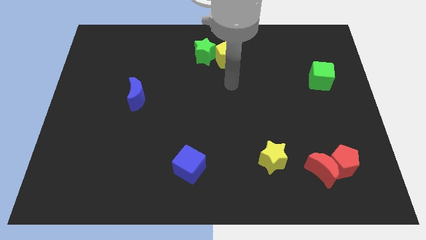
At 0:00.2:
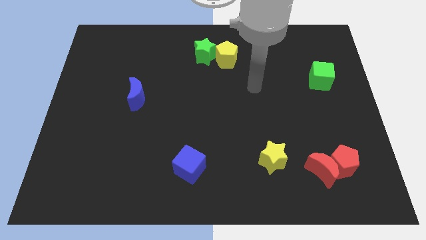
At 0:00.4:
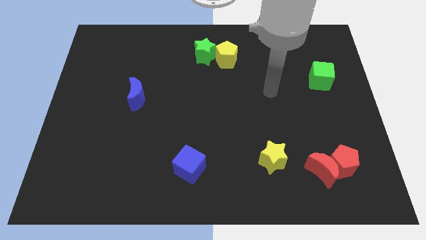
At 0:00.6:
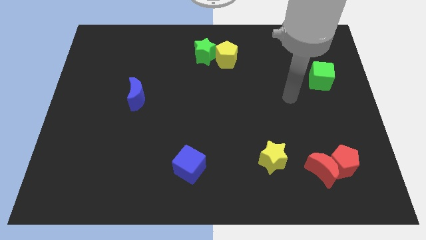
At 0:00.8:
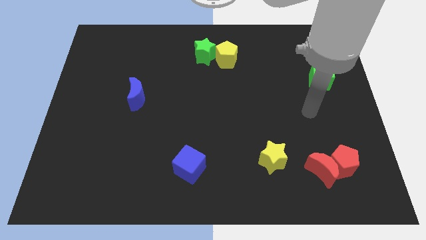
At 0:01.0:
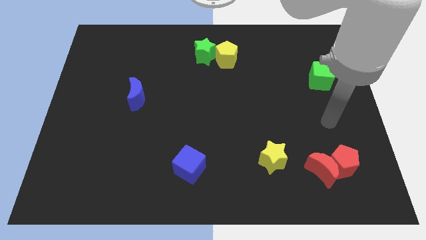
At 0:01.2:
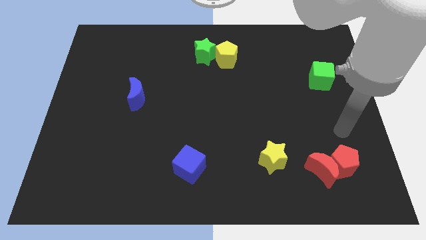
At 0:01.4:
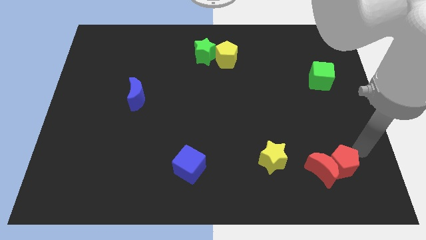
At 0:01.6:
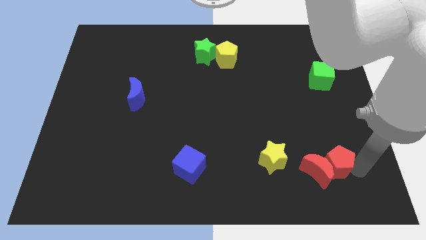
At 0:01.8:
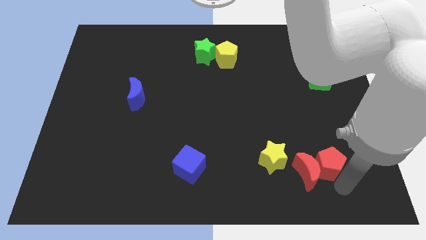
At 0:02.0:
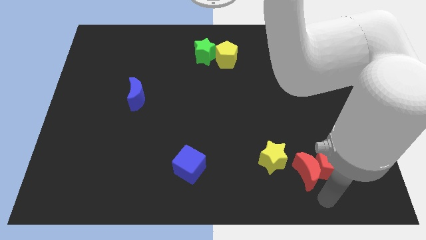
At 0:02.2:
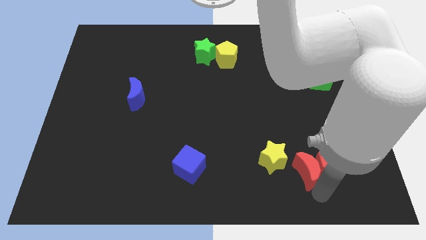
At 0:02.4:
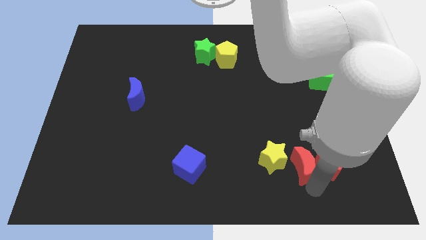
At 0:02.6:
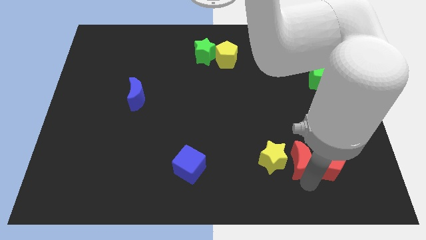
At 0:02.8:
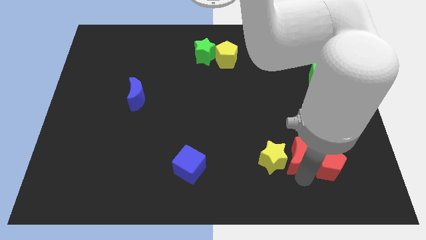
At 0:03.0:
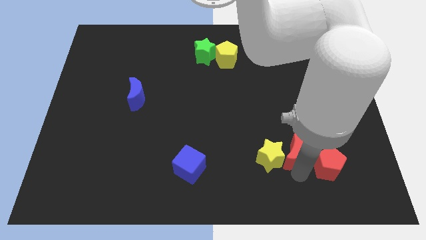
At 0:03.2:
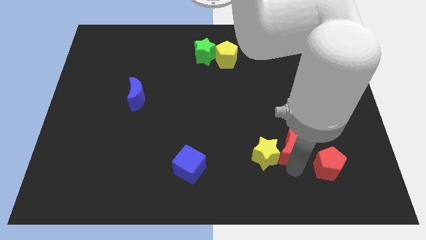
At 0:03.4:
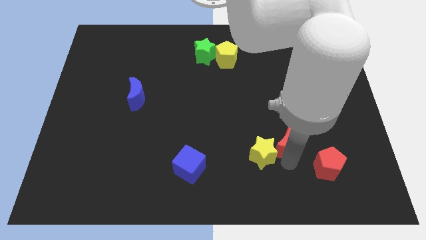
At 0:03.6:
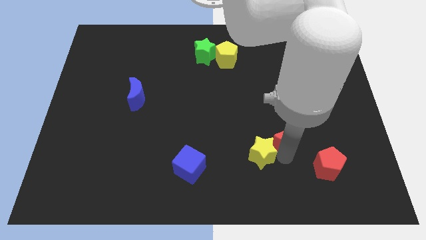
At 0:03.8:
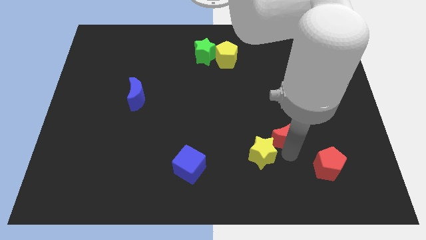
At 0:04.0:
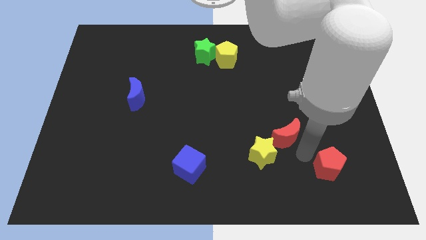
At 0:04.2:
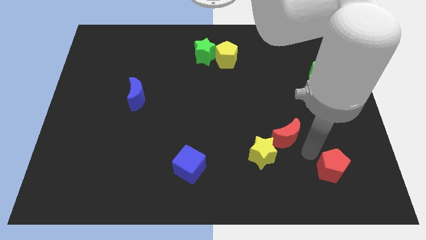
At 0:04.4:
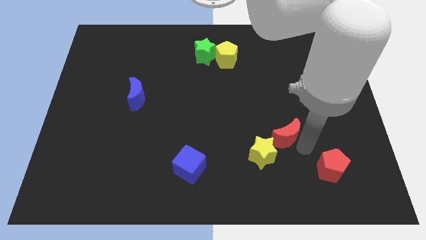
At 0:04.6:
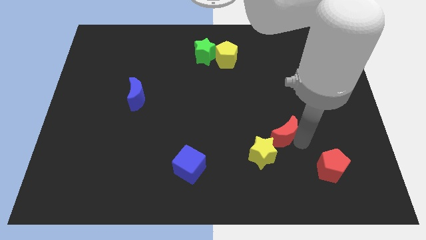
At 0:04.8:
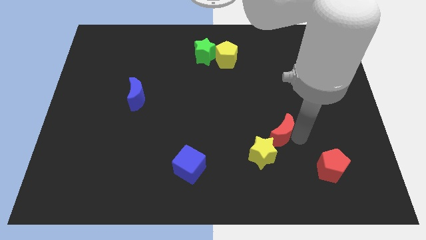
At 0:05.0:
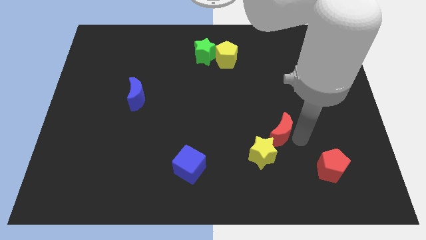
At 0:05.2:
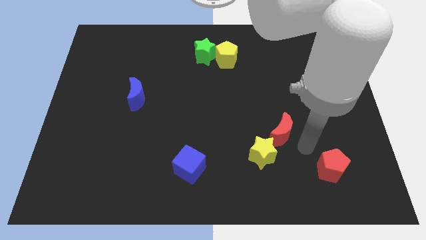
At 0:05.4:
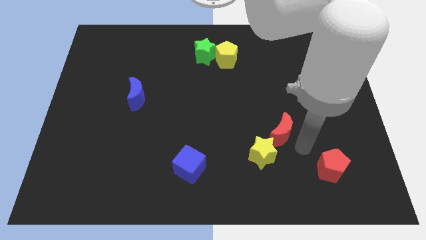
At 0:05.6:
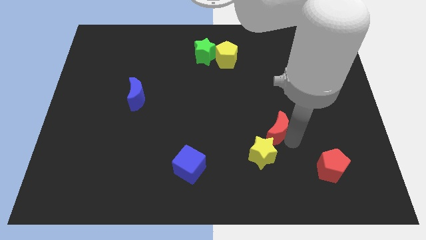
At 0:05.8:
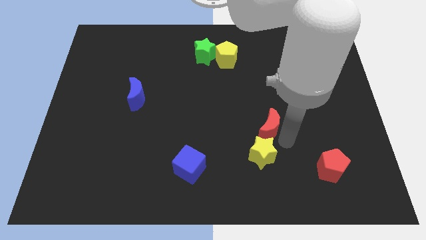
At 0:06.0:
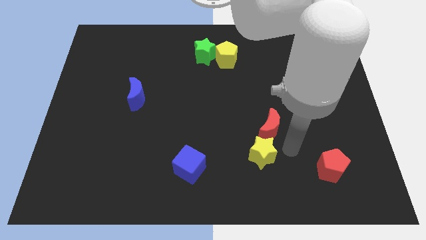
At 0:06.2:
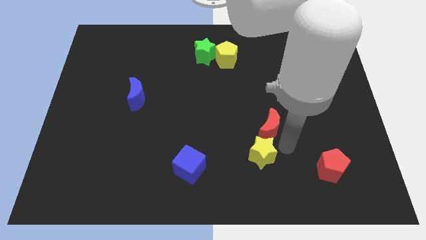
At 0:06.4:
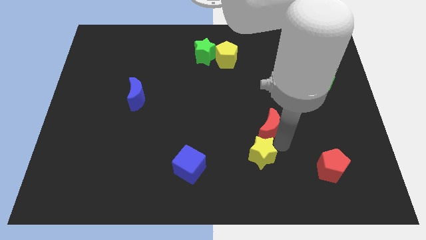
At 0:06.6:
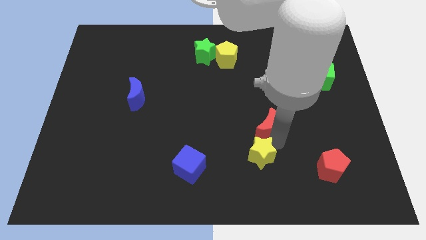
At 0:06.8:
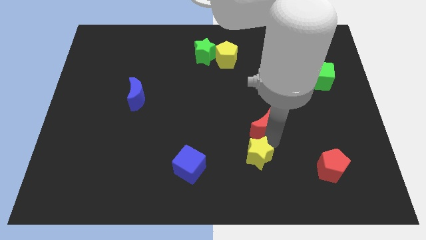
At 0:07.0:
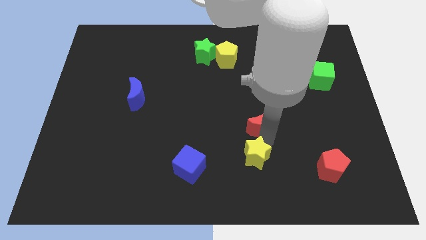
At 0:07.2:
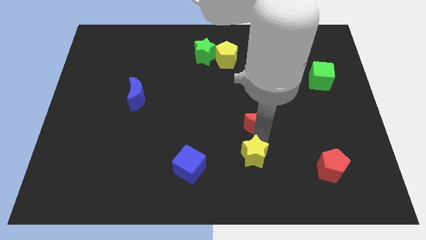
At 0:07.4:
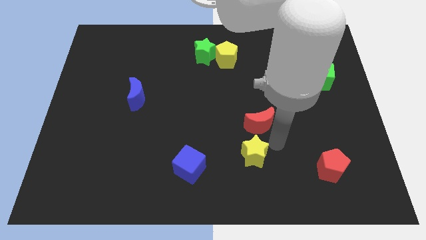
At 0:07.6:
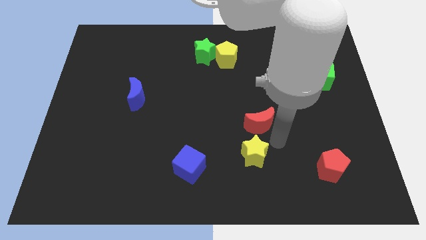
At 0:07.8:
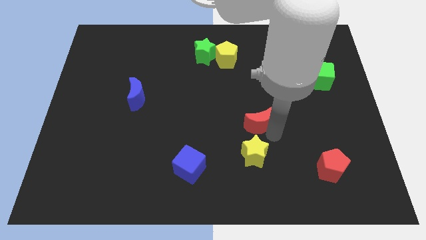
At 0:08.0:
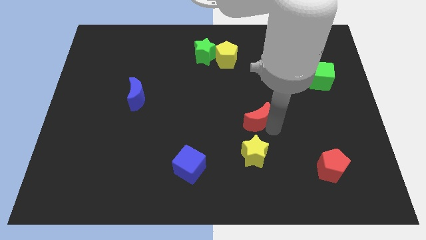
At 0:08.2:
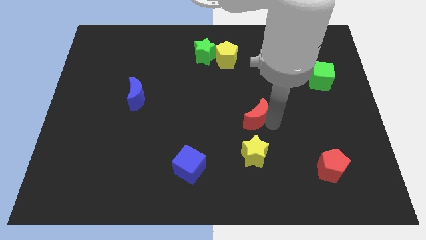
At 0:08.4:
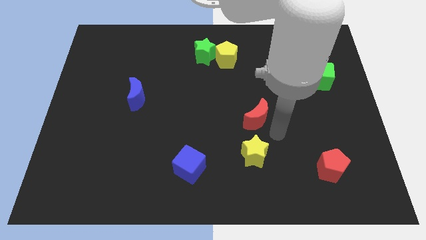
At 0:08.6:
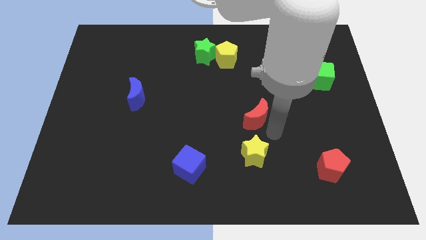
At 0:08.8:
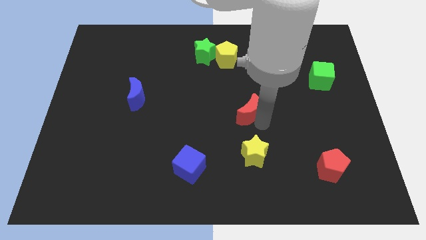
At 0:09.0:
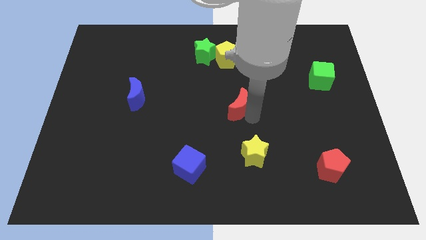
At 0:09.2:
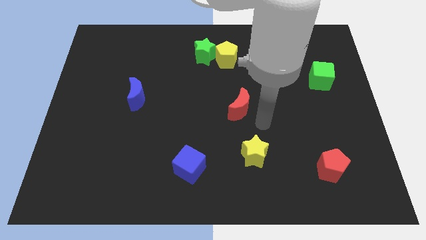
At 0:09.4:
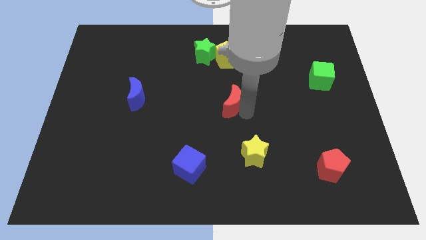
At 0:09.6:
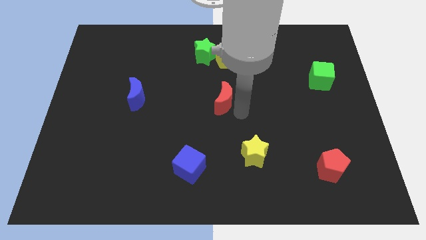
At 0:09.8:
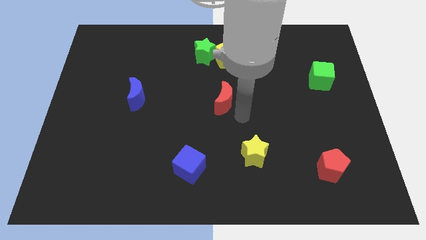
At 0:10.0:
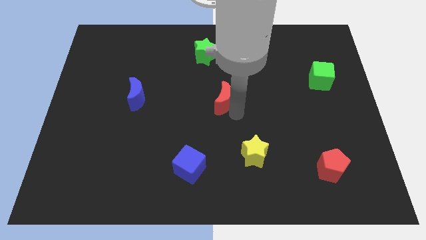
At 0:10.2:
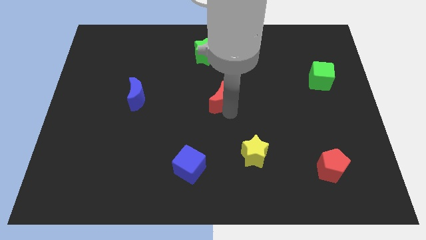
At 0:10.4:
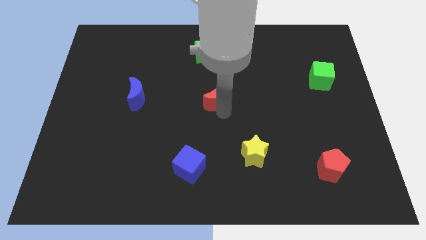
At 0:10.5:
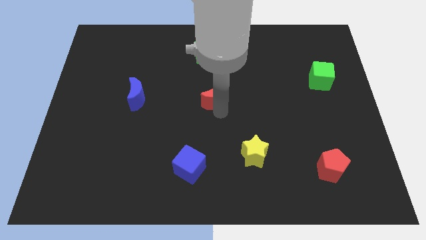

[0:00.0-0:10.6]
push the red moon to the bottom side of the green star

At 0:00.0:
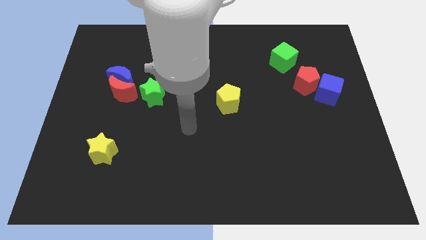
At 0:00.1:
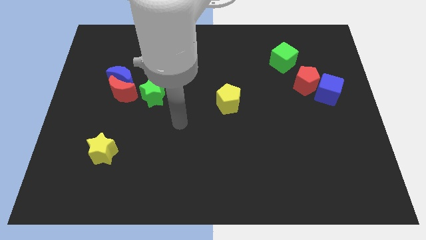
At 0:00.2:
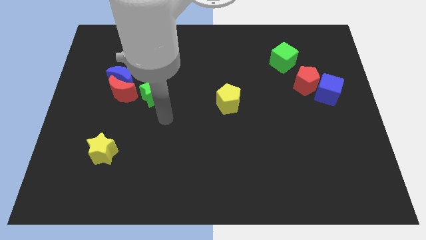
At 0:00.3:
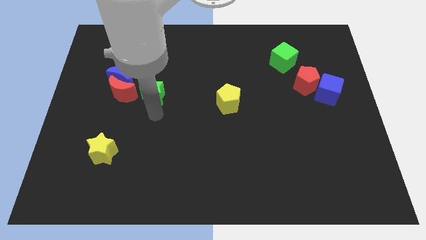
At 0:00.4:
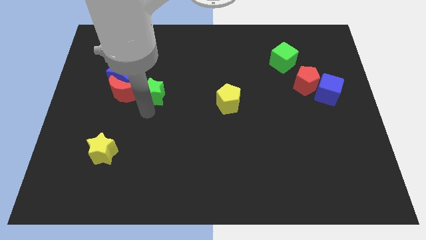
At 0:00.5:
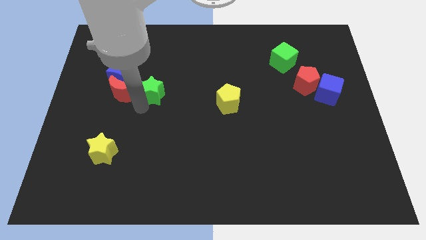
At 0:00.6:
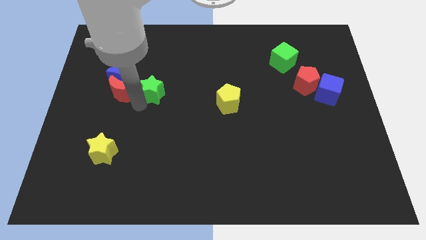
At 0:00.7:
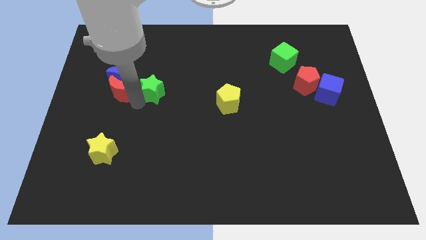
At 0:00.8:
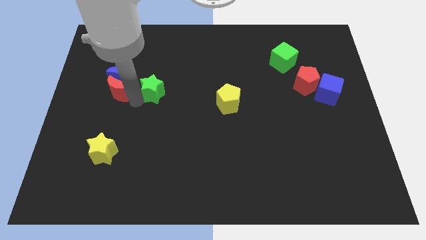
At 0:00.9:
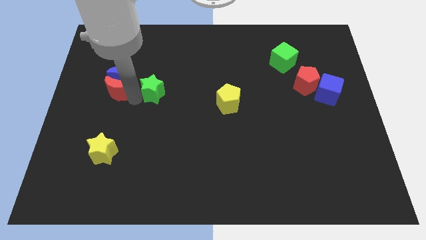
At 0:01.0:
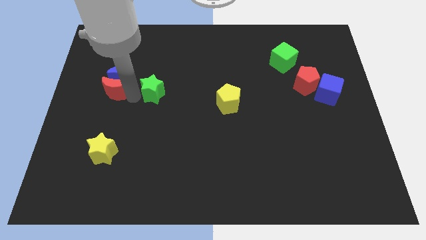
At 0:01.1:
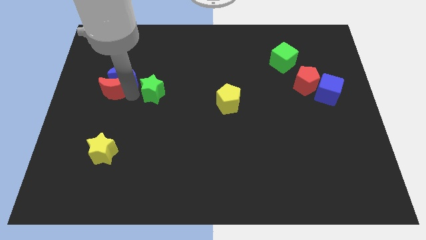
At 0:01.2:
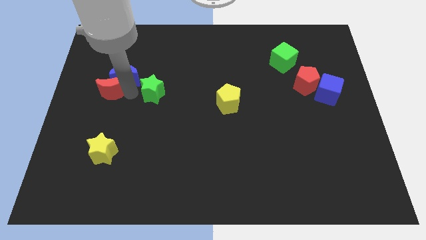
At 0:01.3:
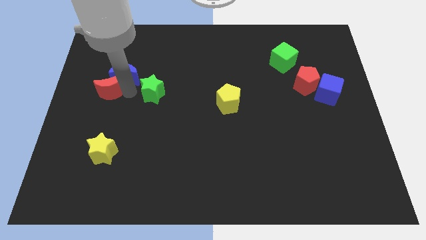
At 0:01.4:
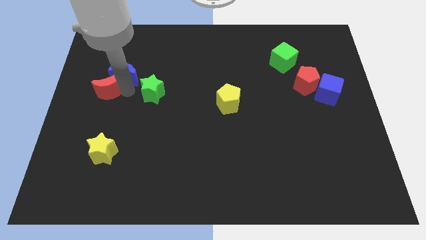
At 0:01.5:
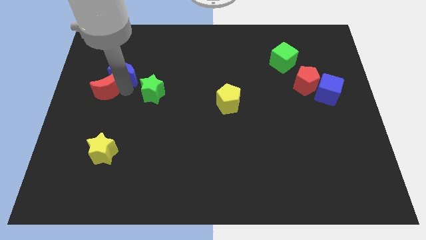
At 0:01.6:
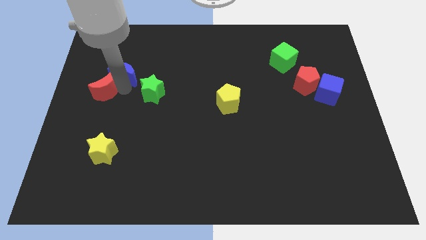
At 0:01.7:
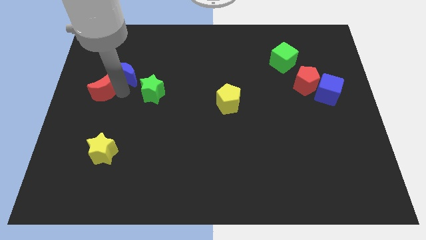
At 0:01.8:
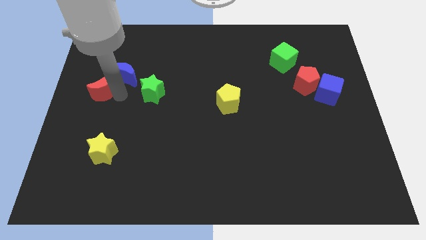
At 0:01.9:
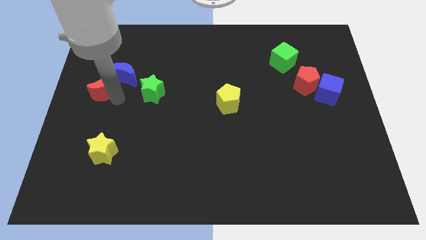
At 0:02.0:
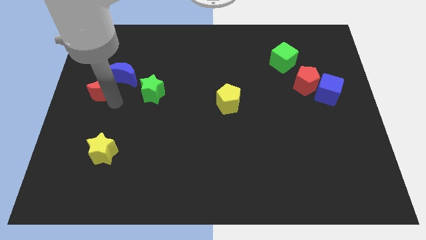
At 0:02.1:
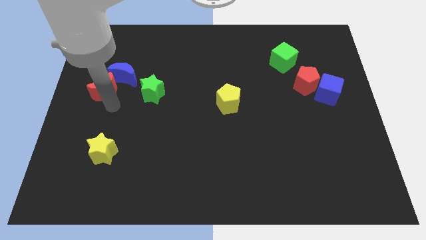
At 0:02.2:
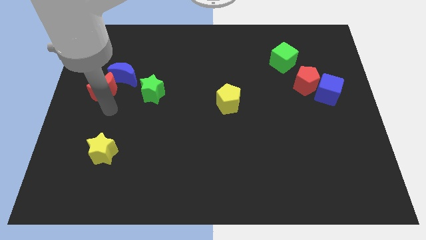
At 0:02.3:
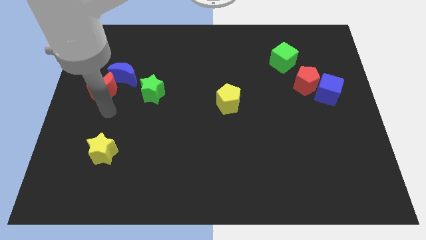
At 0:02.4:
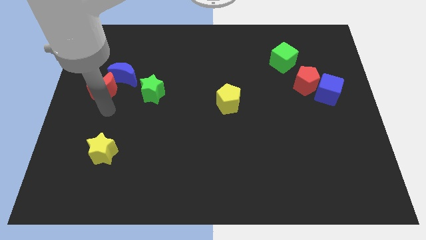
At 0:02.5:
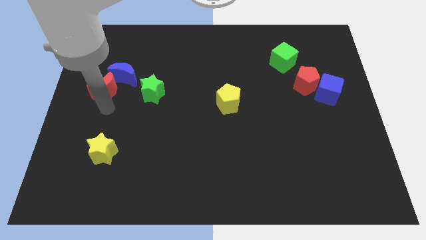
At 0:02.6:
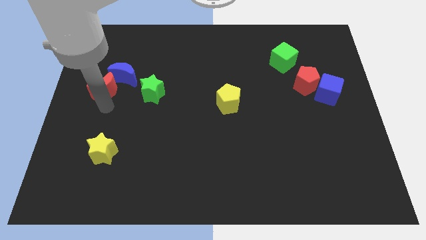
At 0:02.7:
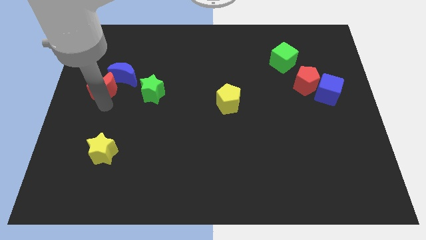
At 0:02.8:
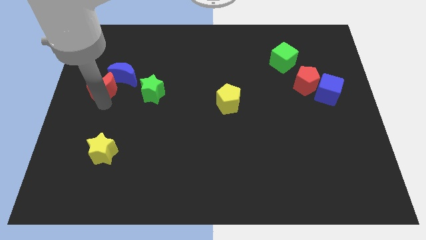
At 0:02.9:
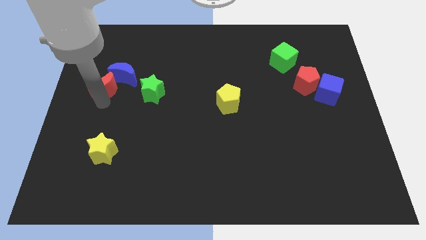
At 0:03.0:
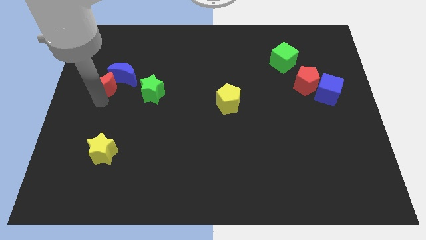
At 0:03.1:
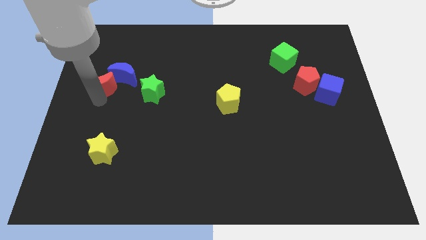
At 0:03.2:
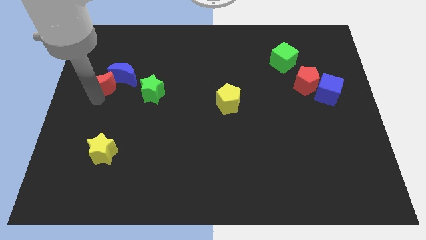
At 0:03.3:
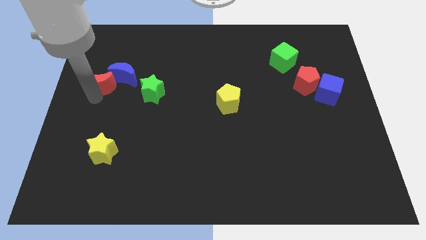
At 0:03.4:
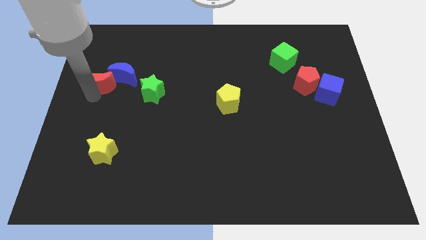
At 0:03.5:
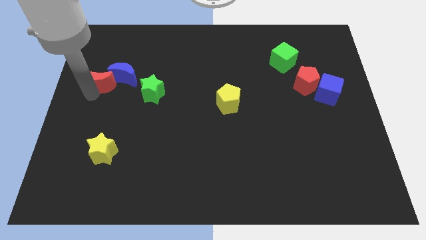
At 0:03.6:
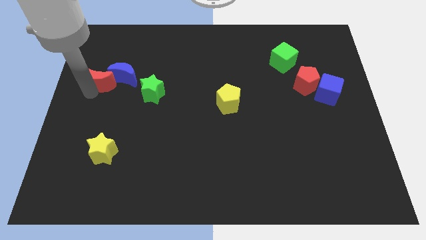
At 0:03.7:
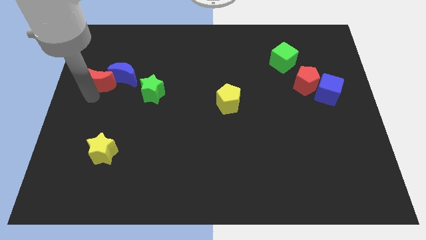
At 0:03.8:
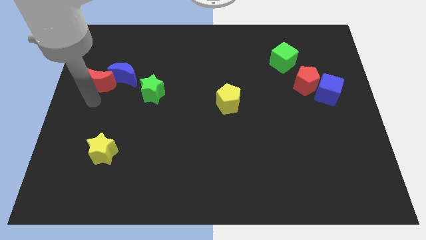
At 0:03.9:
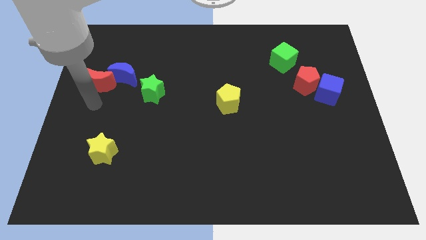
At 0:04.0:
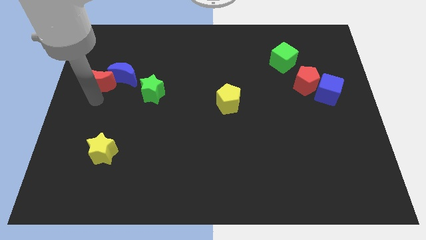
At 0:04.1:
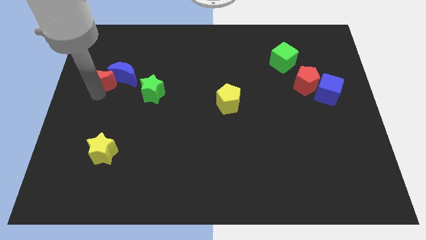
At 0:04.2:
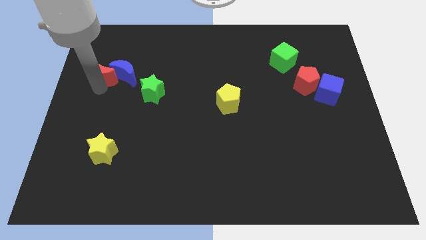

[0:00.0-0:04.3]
put the red moon diagonally up and to the left of the blue moon
